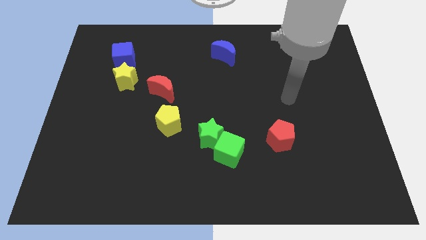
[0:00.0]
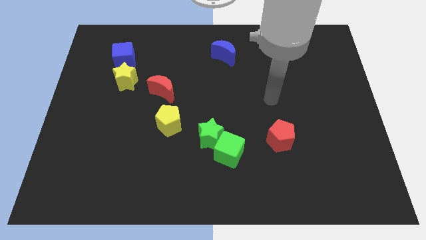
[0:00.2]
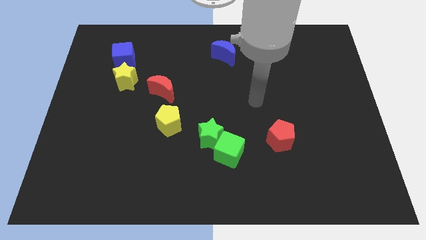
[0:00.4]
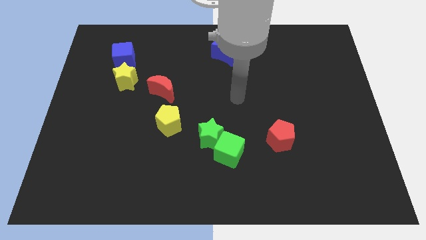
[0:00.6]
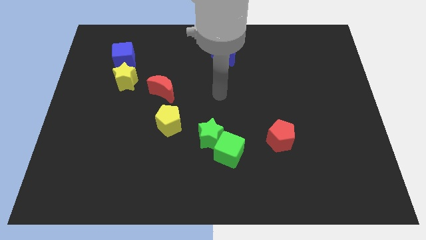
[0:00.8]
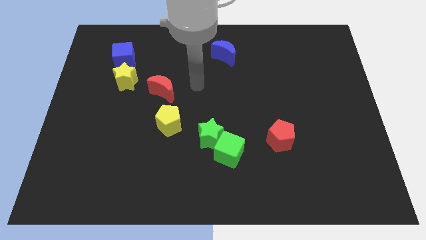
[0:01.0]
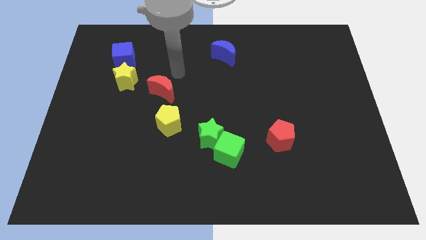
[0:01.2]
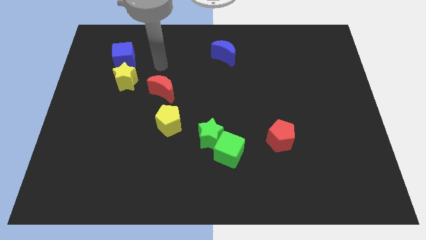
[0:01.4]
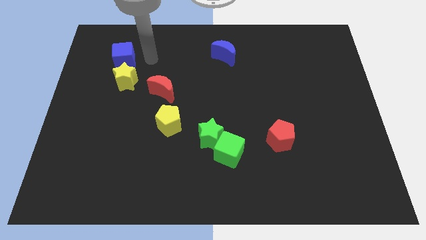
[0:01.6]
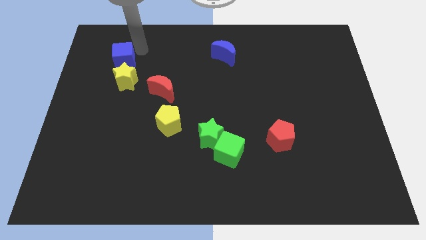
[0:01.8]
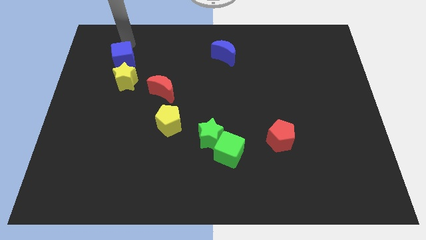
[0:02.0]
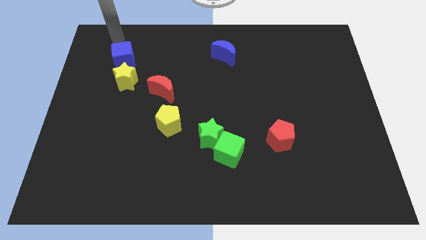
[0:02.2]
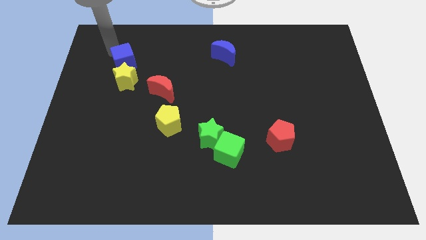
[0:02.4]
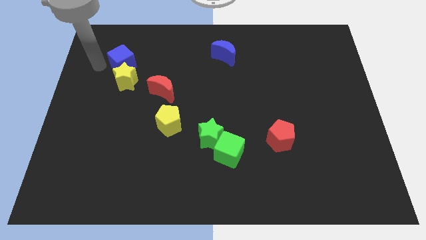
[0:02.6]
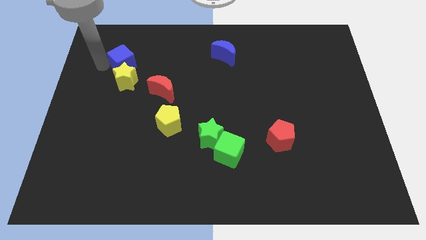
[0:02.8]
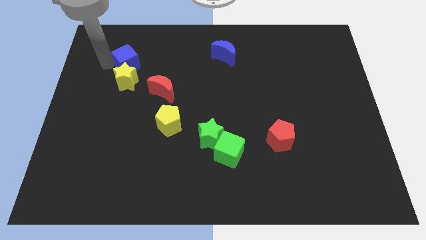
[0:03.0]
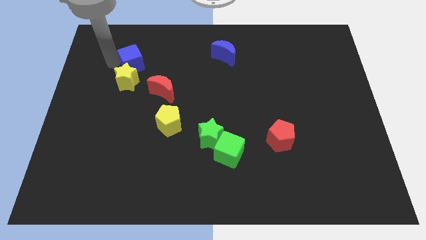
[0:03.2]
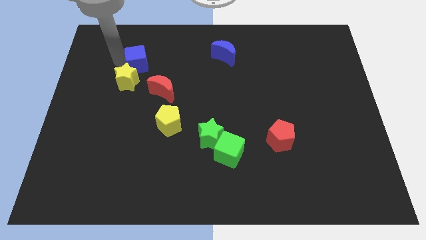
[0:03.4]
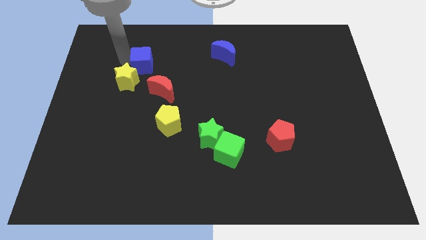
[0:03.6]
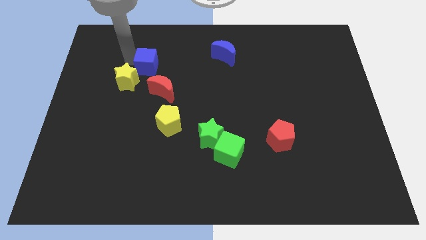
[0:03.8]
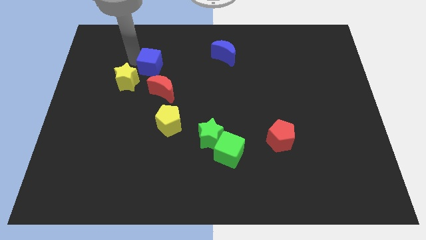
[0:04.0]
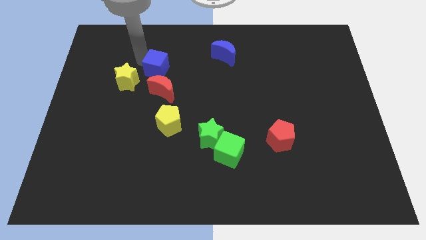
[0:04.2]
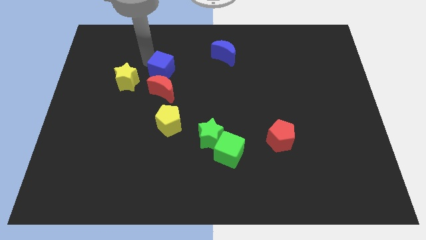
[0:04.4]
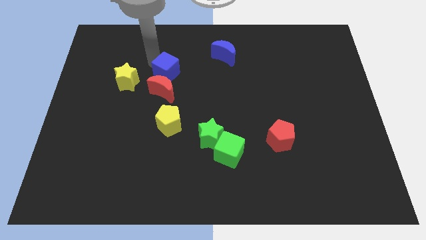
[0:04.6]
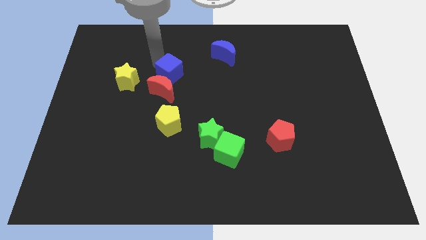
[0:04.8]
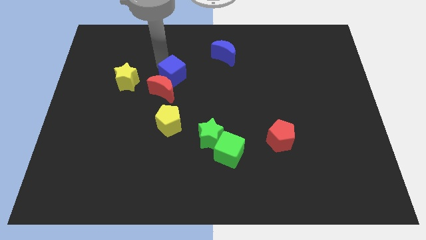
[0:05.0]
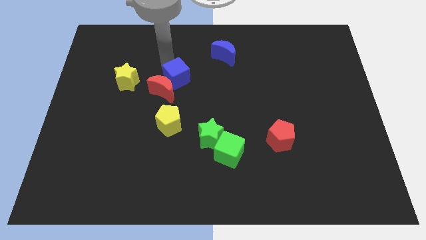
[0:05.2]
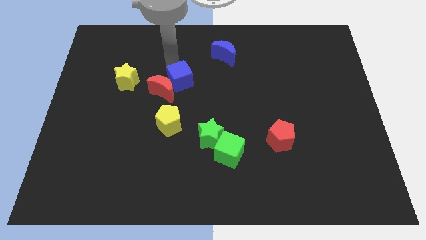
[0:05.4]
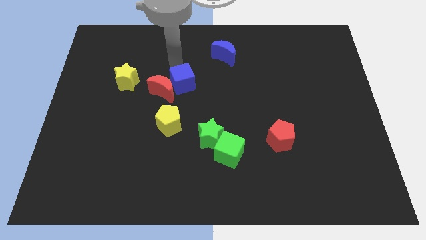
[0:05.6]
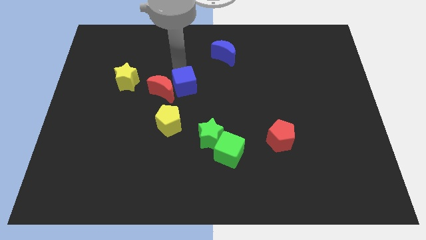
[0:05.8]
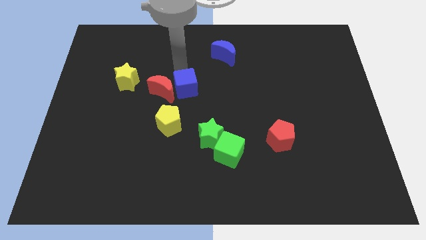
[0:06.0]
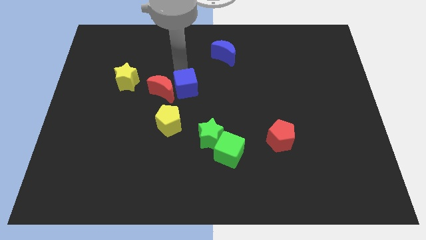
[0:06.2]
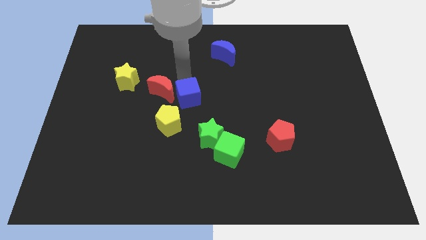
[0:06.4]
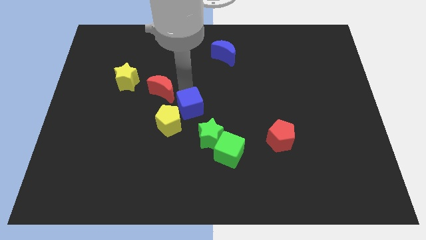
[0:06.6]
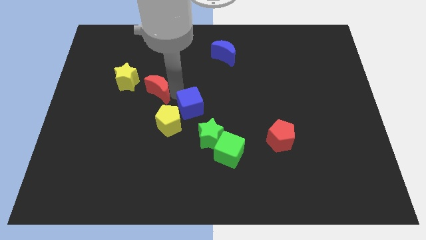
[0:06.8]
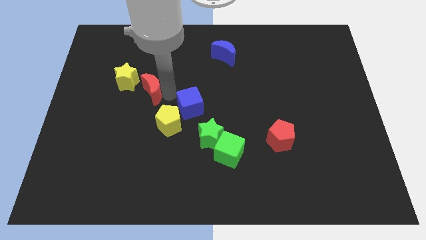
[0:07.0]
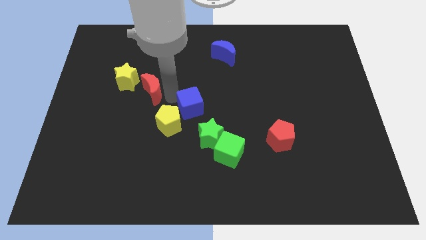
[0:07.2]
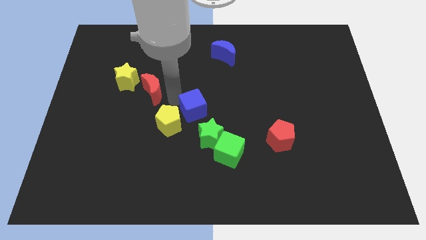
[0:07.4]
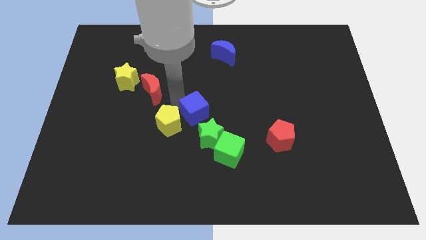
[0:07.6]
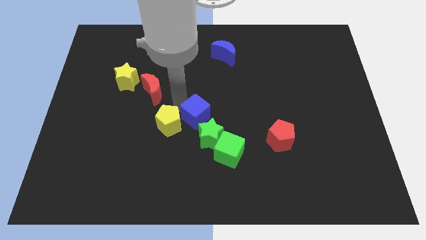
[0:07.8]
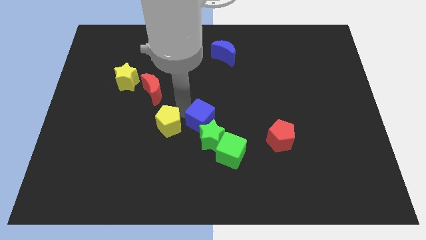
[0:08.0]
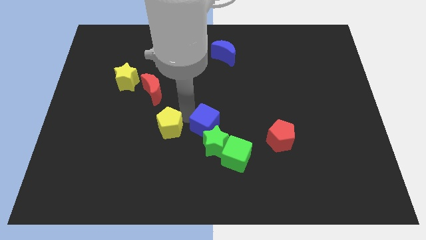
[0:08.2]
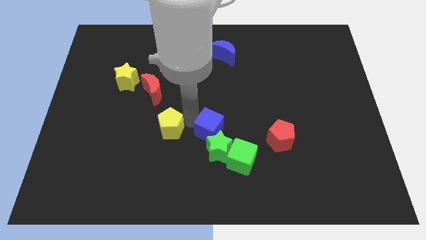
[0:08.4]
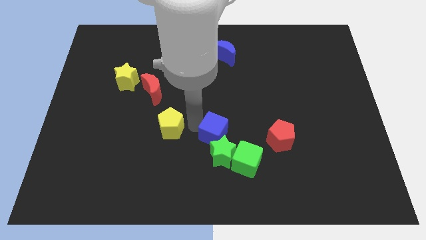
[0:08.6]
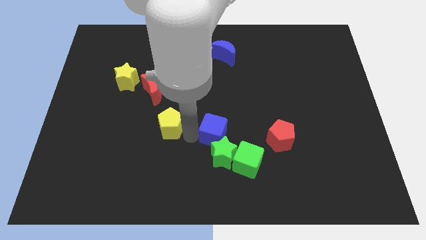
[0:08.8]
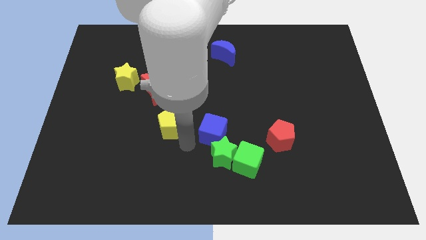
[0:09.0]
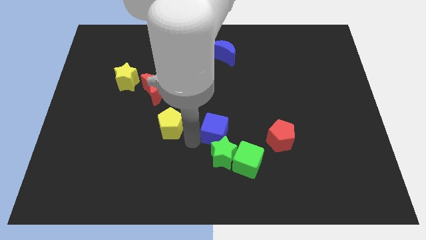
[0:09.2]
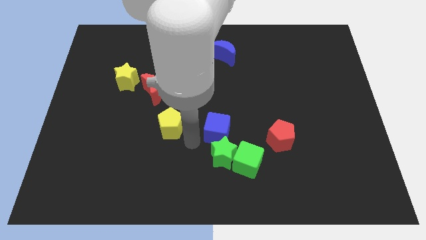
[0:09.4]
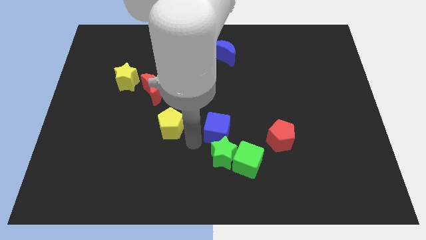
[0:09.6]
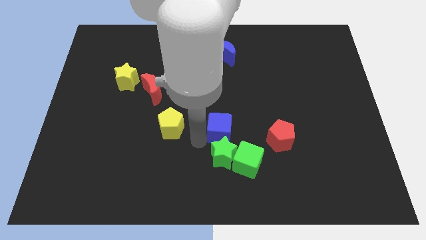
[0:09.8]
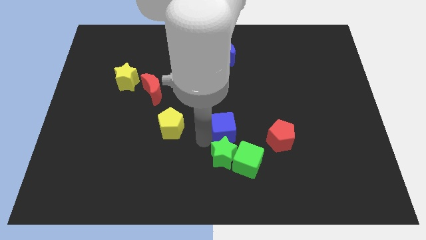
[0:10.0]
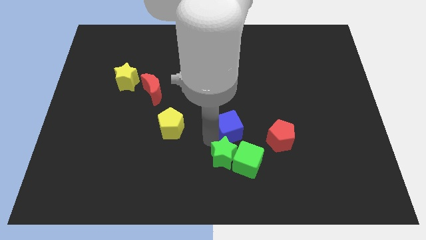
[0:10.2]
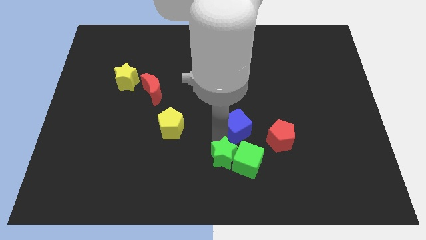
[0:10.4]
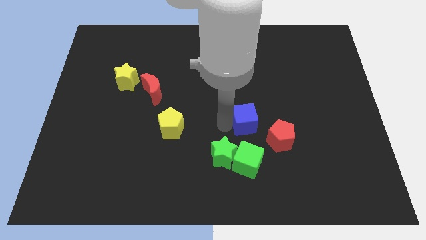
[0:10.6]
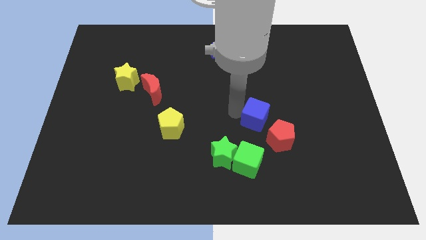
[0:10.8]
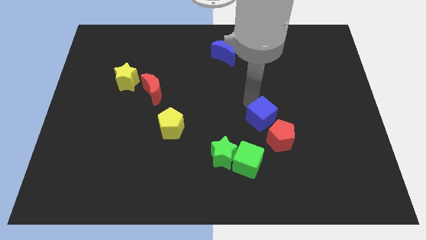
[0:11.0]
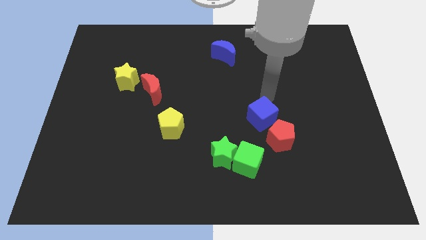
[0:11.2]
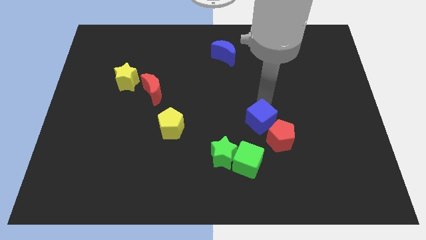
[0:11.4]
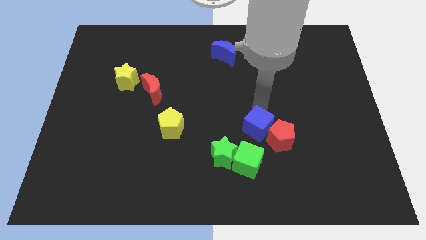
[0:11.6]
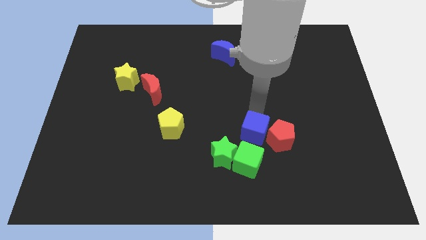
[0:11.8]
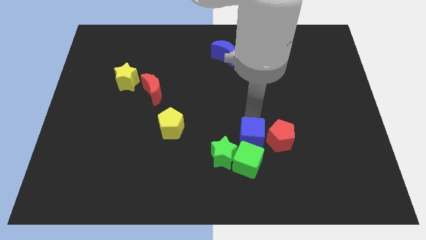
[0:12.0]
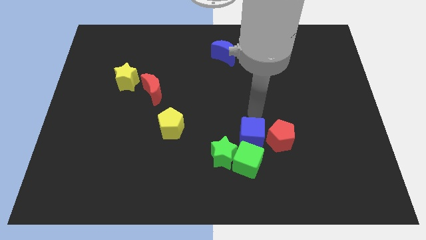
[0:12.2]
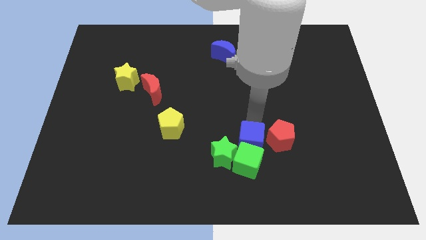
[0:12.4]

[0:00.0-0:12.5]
slide the blue cube towards the green cube

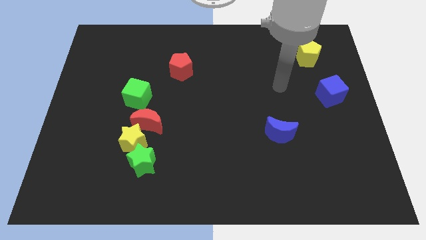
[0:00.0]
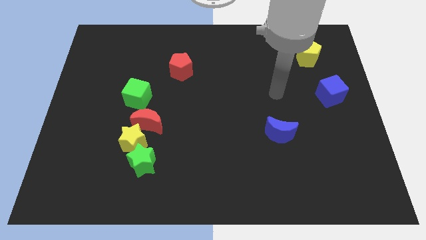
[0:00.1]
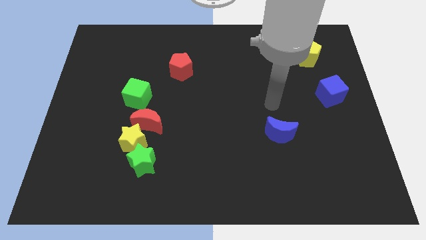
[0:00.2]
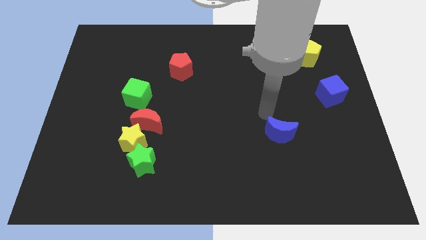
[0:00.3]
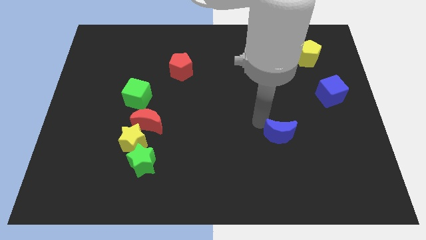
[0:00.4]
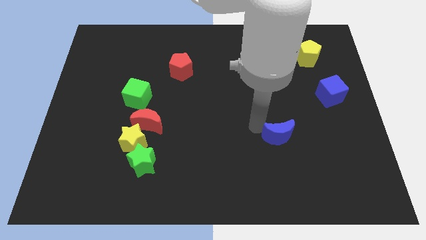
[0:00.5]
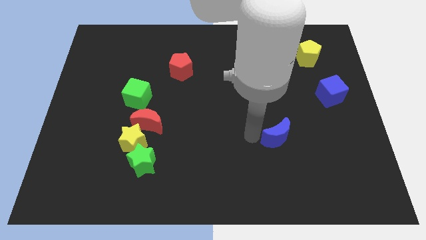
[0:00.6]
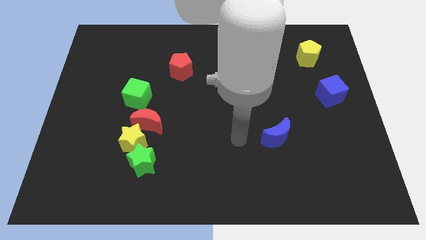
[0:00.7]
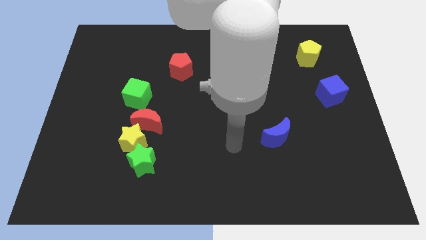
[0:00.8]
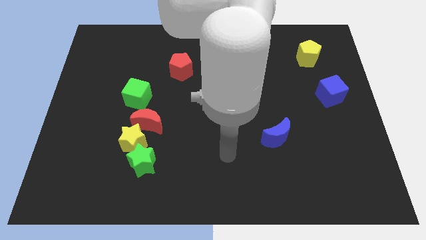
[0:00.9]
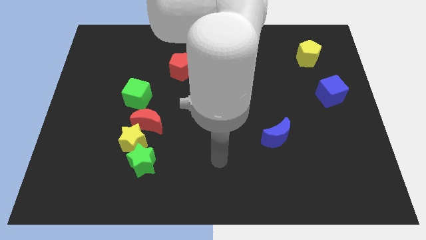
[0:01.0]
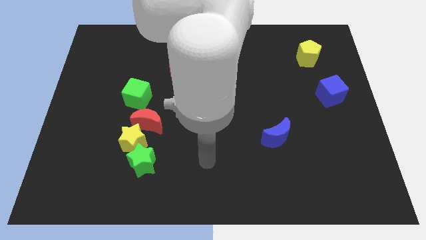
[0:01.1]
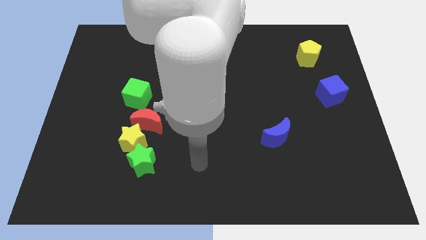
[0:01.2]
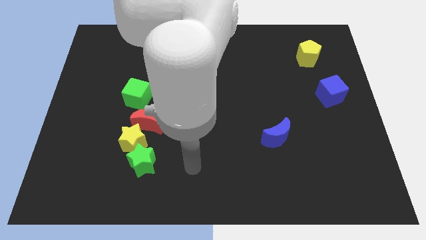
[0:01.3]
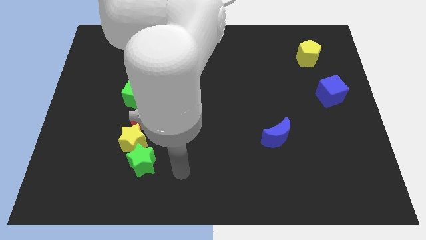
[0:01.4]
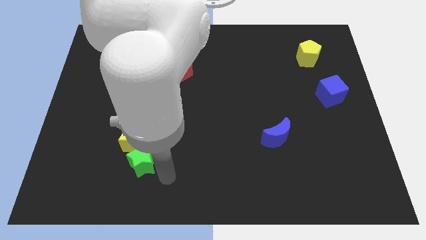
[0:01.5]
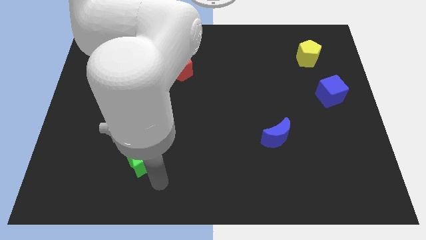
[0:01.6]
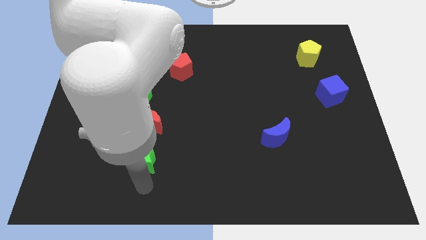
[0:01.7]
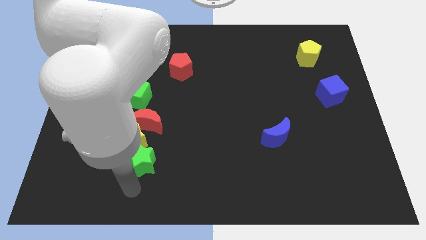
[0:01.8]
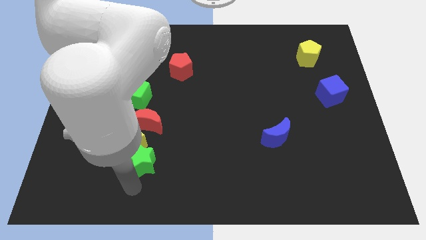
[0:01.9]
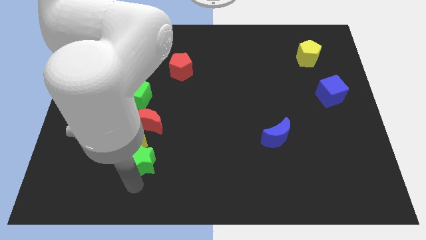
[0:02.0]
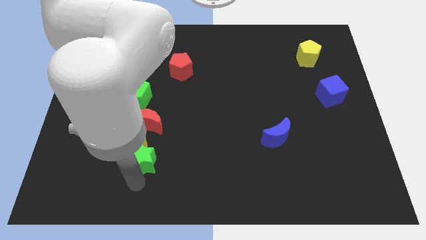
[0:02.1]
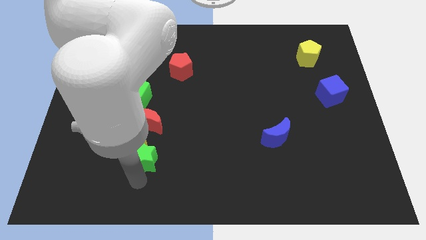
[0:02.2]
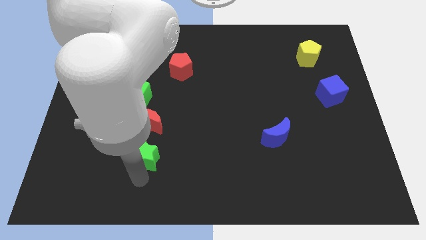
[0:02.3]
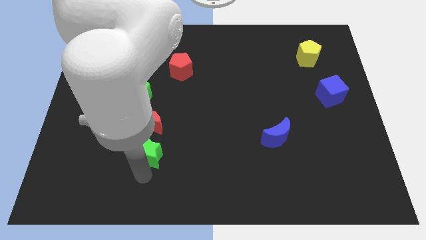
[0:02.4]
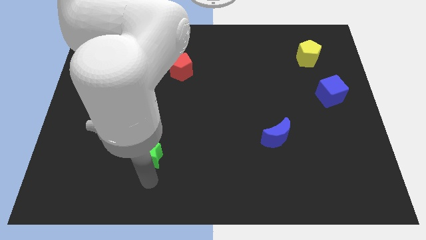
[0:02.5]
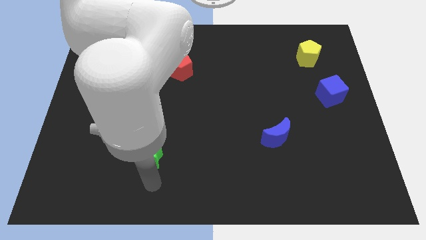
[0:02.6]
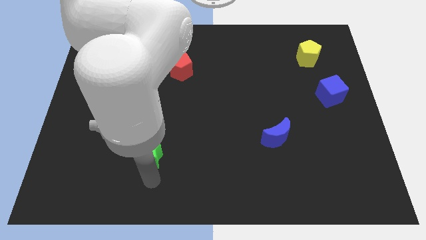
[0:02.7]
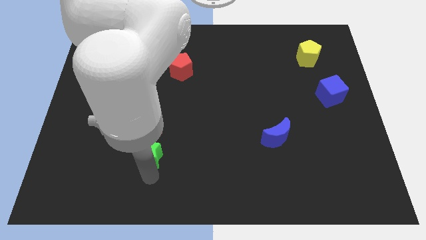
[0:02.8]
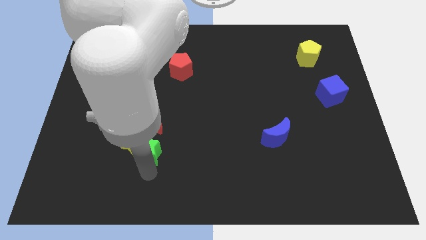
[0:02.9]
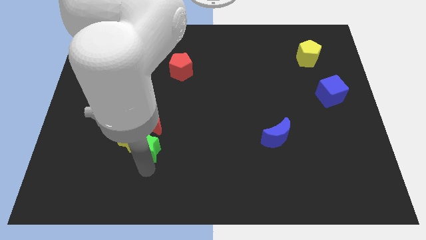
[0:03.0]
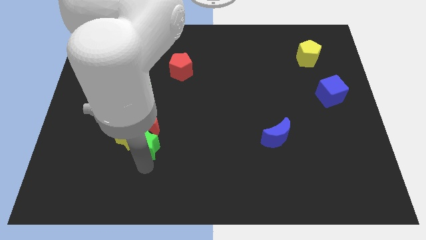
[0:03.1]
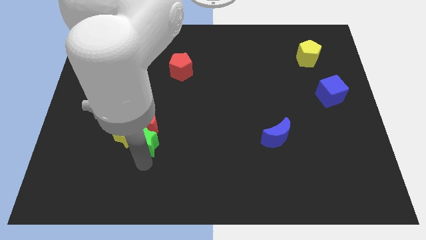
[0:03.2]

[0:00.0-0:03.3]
push the green star next to the red moon
